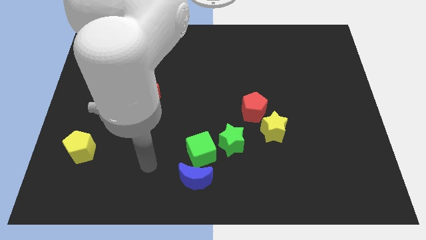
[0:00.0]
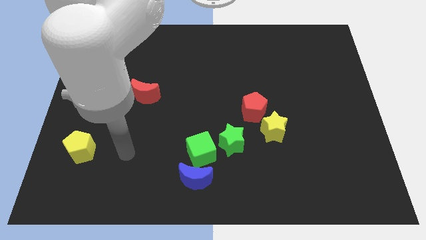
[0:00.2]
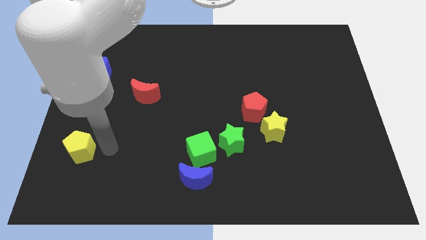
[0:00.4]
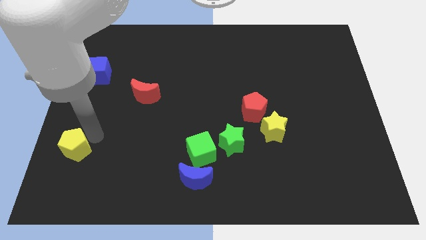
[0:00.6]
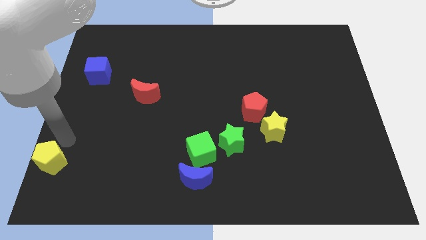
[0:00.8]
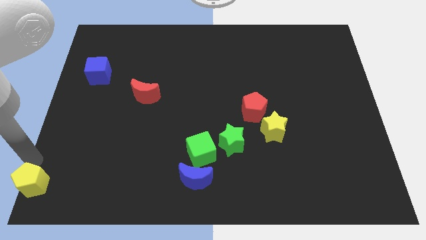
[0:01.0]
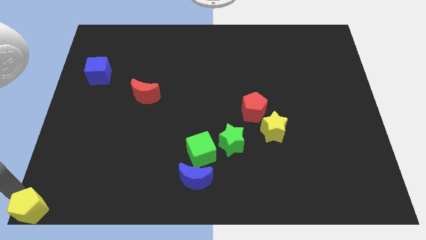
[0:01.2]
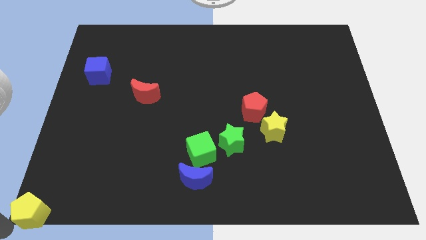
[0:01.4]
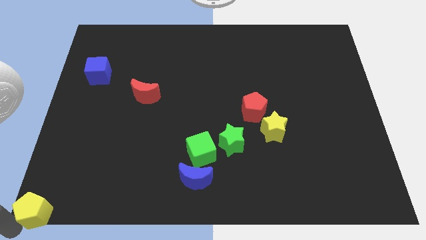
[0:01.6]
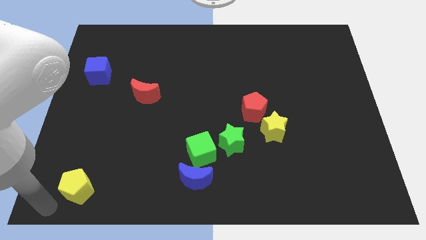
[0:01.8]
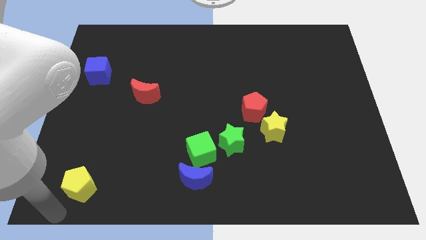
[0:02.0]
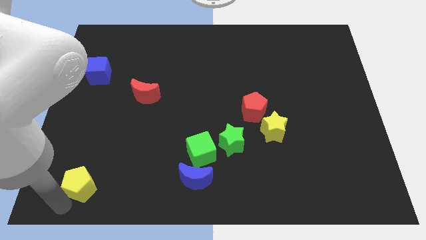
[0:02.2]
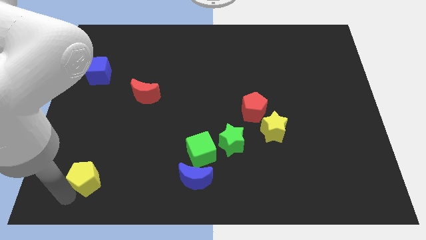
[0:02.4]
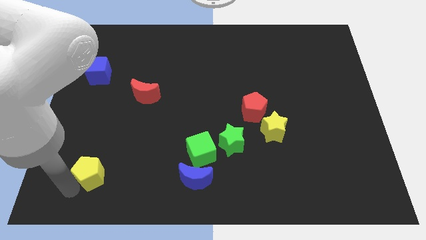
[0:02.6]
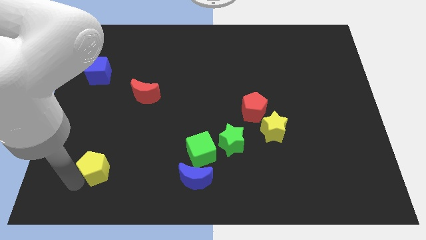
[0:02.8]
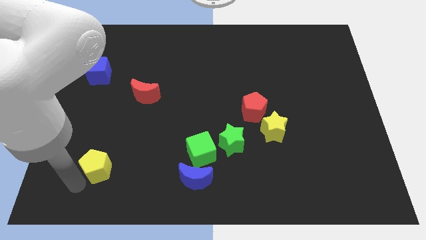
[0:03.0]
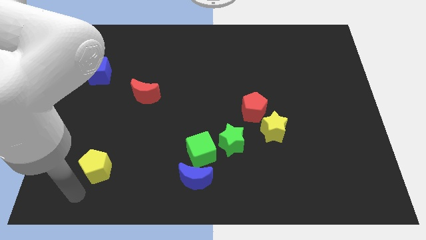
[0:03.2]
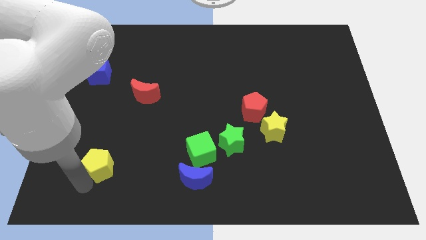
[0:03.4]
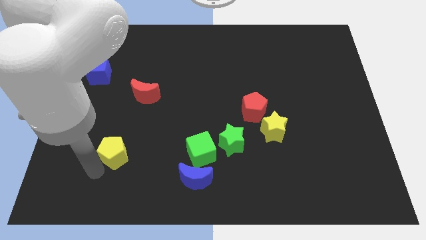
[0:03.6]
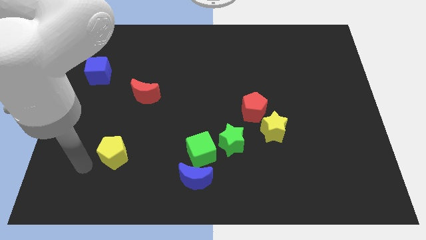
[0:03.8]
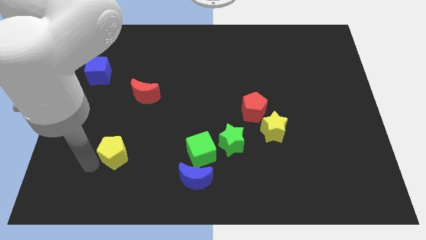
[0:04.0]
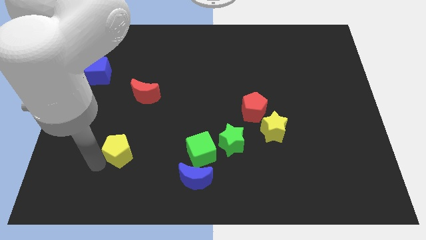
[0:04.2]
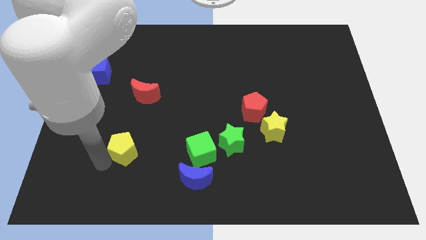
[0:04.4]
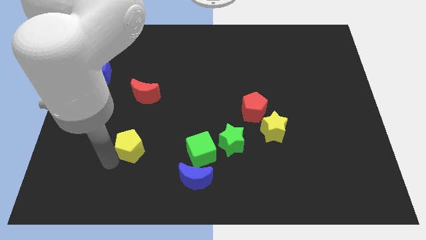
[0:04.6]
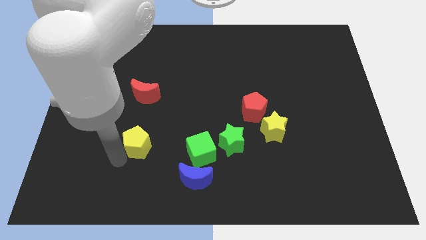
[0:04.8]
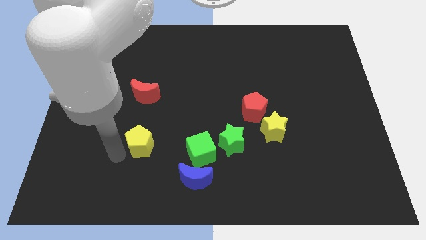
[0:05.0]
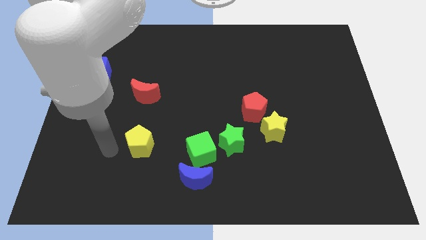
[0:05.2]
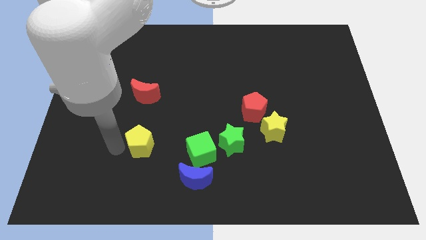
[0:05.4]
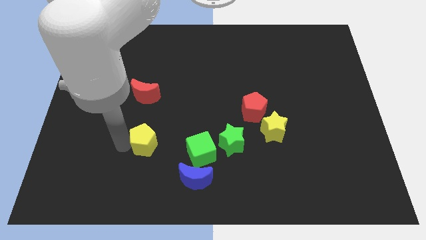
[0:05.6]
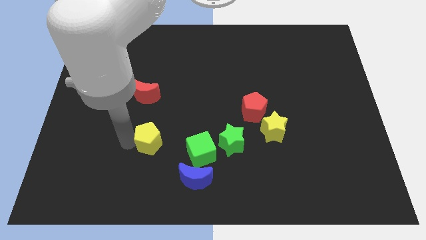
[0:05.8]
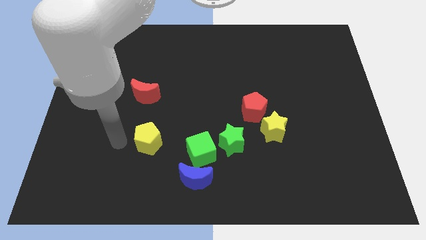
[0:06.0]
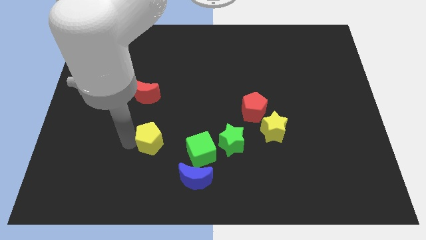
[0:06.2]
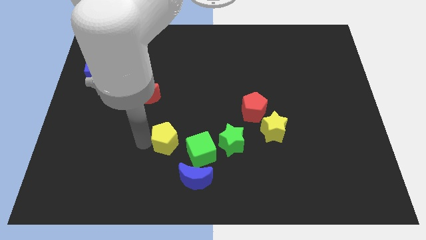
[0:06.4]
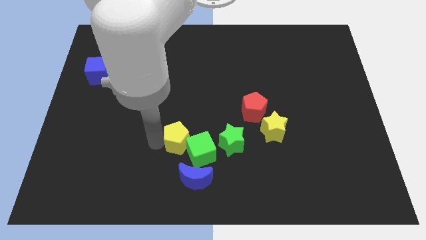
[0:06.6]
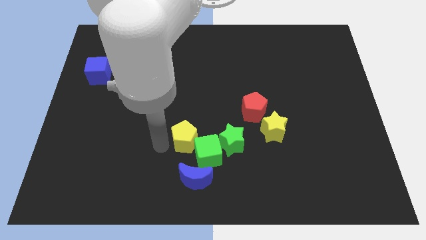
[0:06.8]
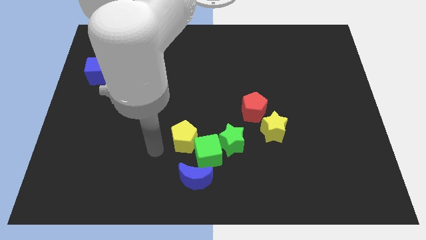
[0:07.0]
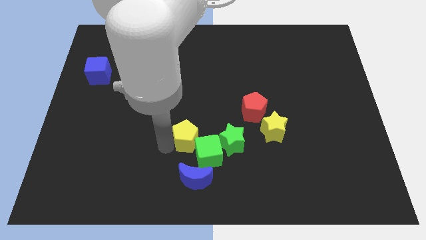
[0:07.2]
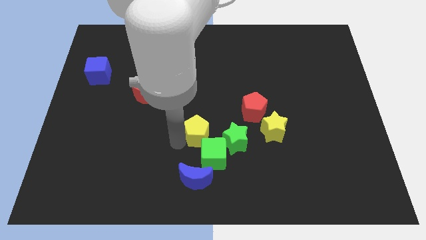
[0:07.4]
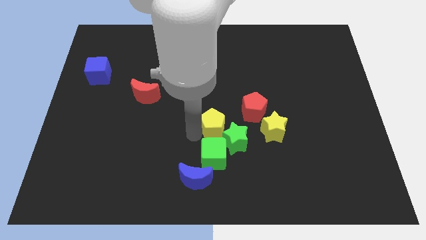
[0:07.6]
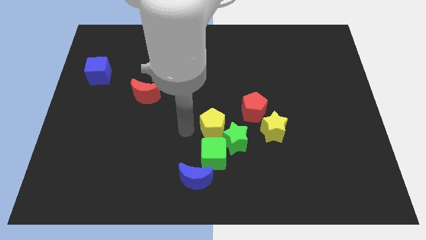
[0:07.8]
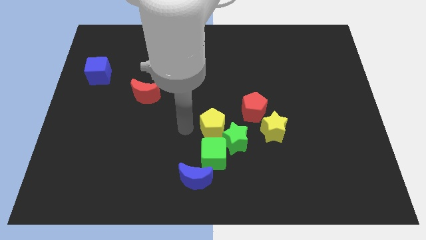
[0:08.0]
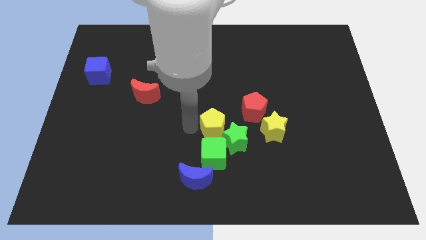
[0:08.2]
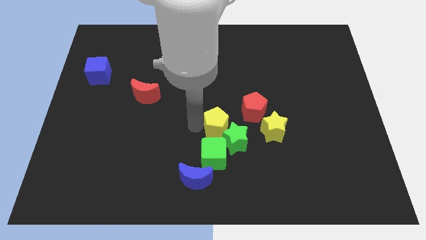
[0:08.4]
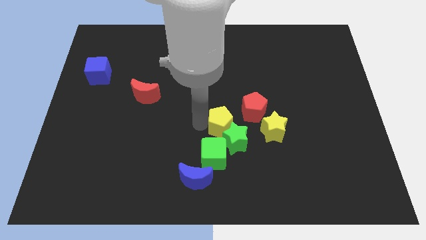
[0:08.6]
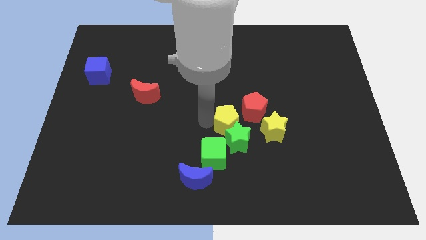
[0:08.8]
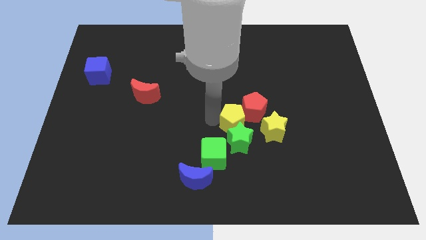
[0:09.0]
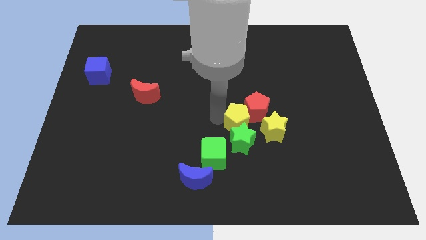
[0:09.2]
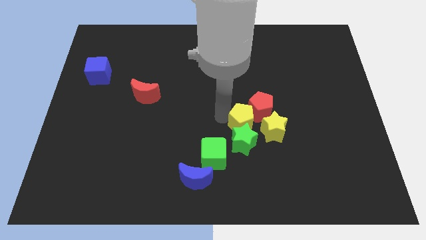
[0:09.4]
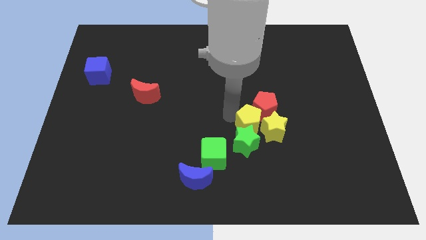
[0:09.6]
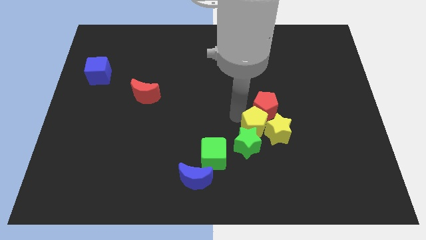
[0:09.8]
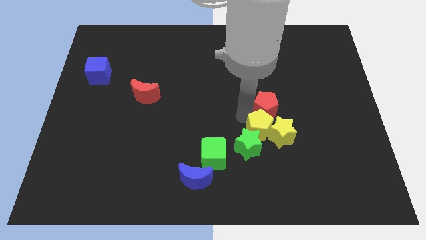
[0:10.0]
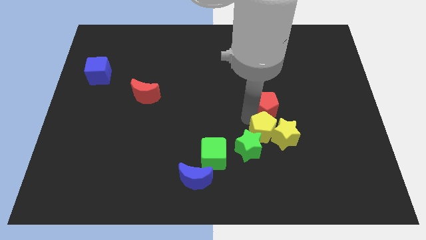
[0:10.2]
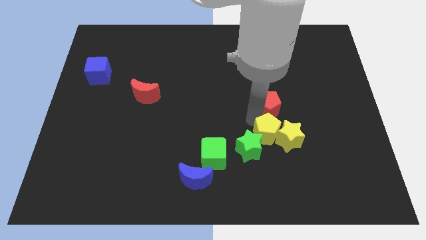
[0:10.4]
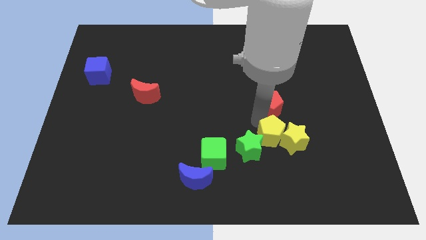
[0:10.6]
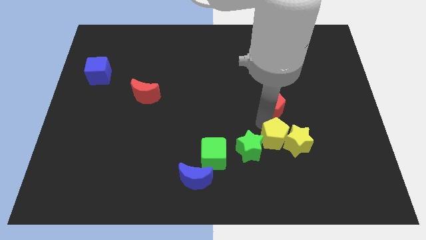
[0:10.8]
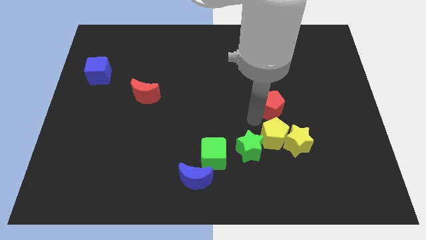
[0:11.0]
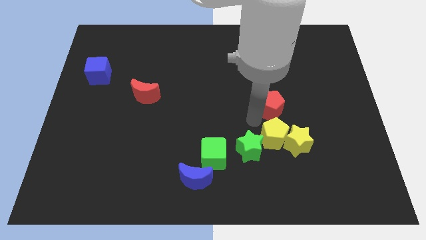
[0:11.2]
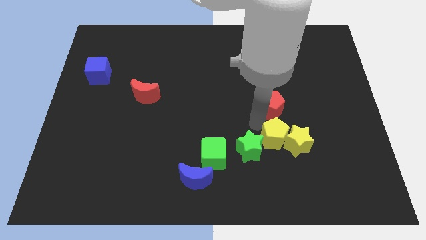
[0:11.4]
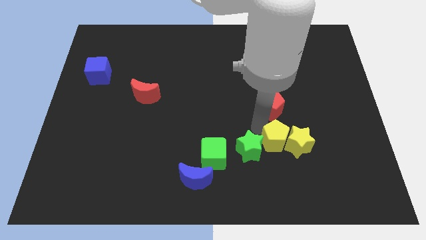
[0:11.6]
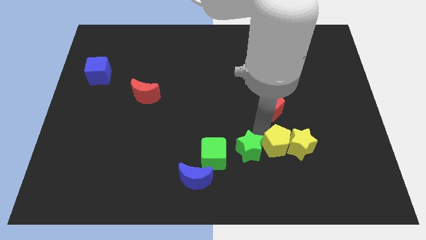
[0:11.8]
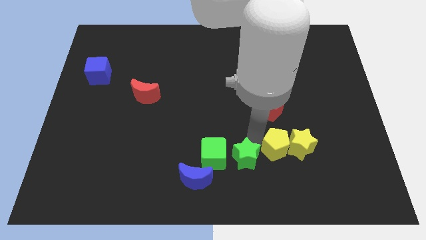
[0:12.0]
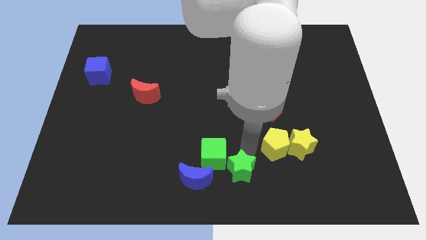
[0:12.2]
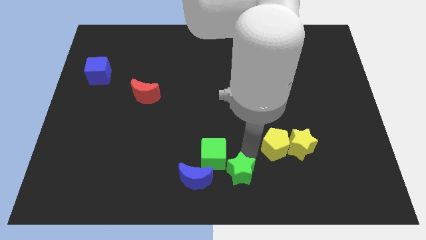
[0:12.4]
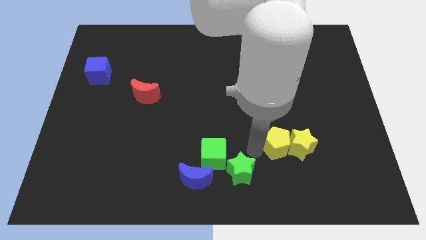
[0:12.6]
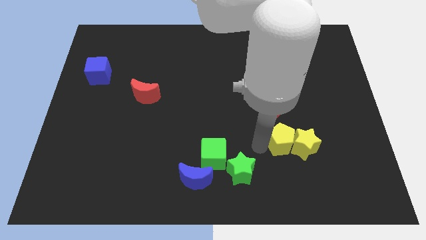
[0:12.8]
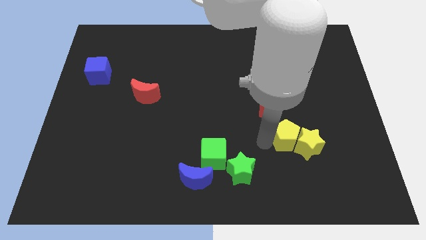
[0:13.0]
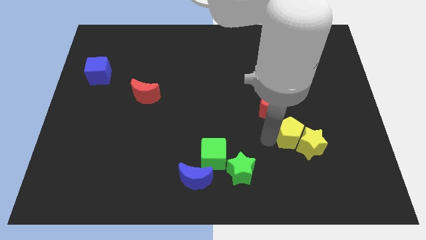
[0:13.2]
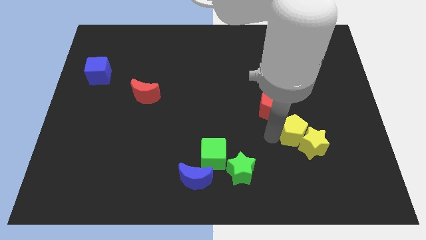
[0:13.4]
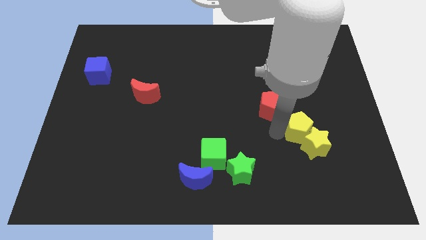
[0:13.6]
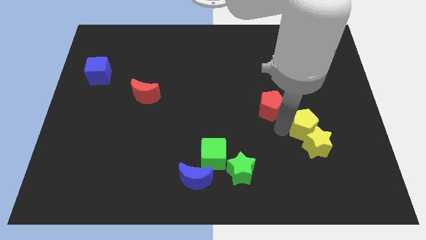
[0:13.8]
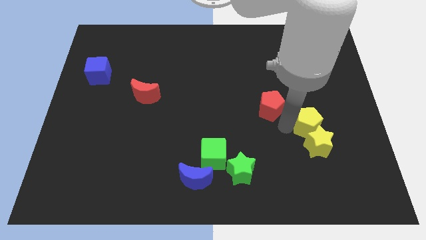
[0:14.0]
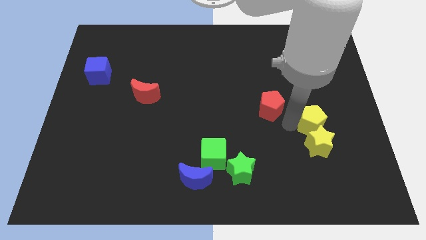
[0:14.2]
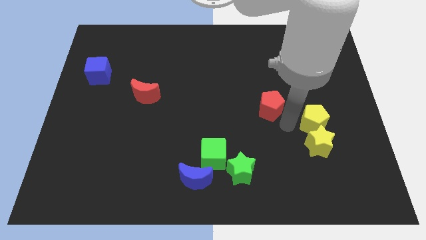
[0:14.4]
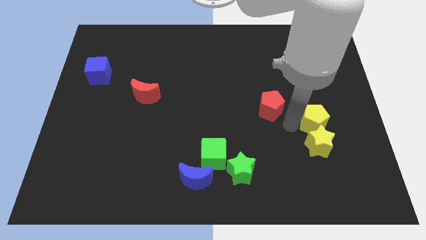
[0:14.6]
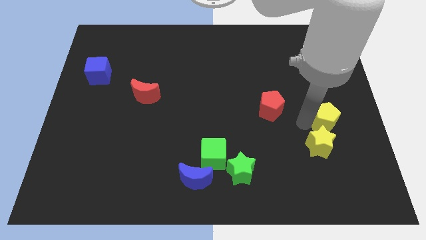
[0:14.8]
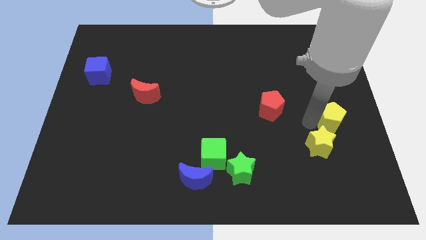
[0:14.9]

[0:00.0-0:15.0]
slide the yellow pentagon to the right side

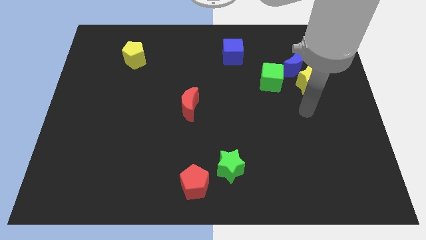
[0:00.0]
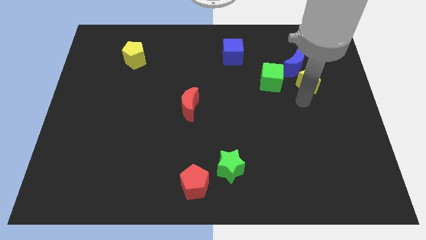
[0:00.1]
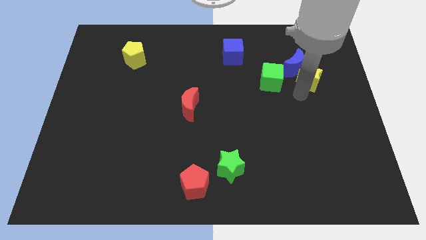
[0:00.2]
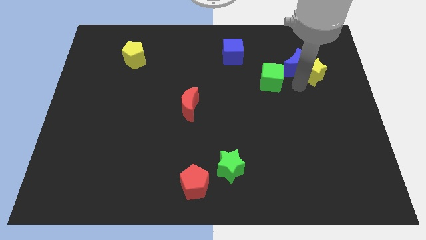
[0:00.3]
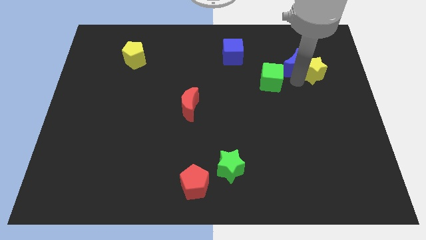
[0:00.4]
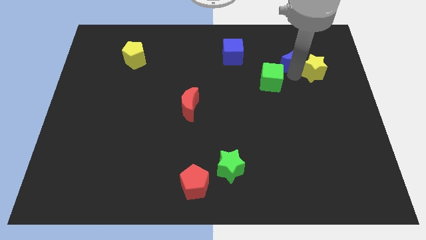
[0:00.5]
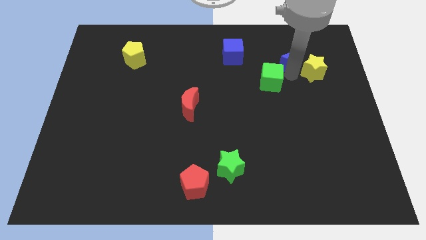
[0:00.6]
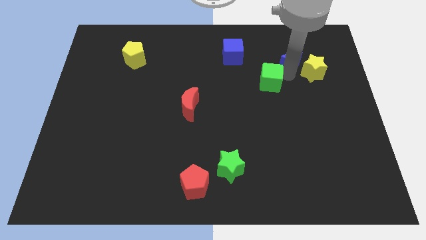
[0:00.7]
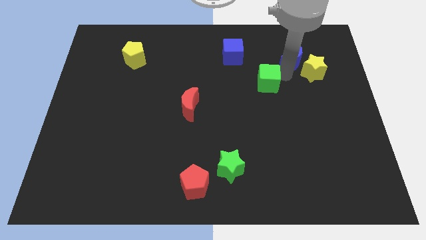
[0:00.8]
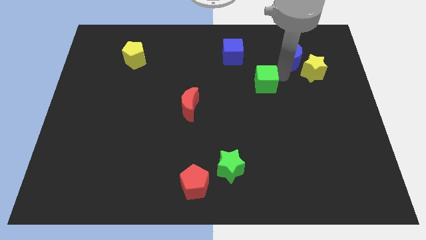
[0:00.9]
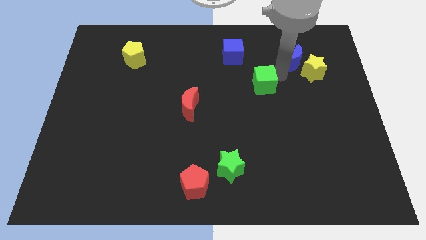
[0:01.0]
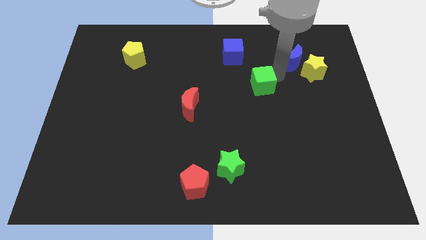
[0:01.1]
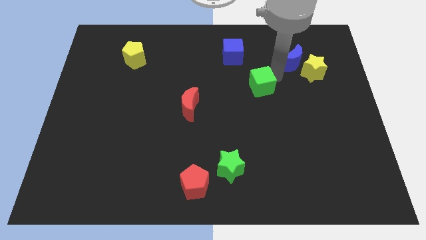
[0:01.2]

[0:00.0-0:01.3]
move the green cube to the middle of the board
